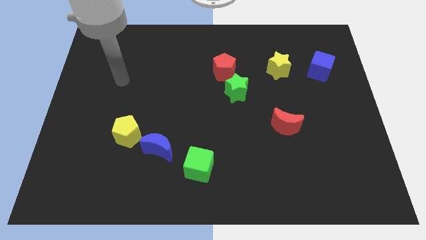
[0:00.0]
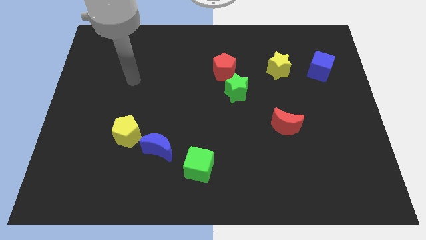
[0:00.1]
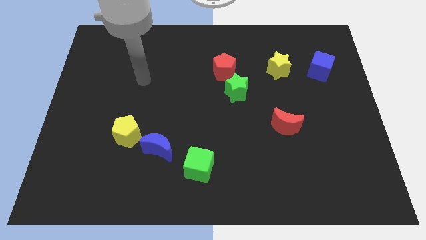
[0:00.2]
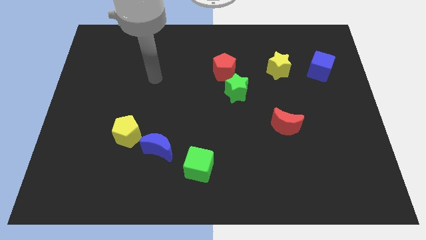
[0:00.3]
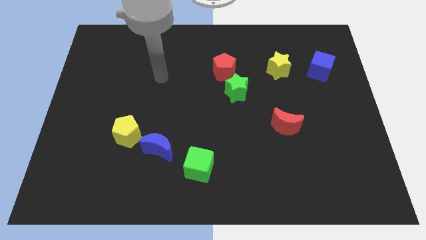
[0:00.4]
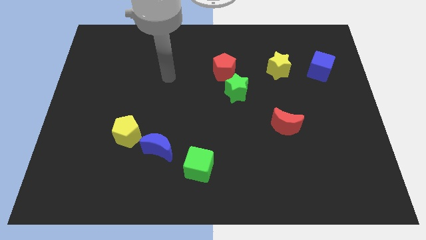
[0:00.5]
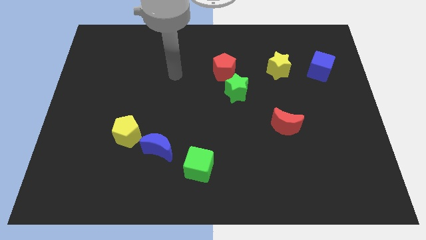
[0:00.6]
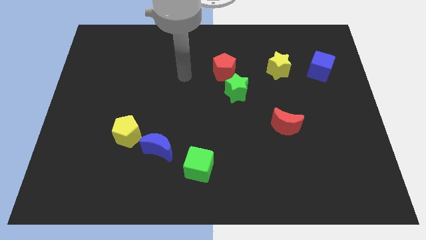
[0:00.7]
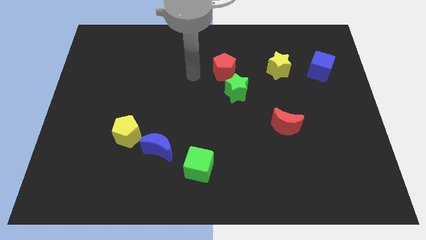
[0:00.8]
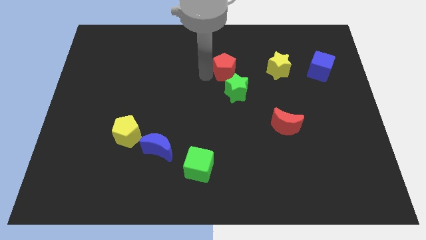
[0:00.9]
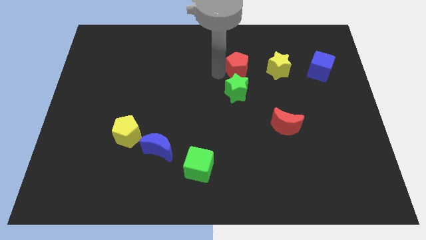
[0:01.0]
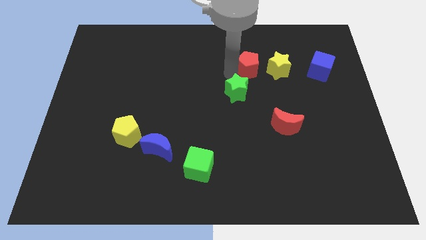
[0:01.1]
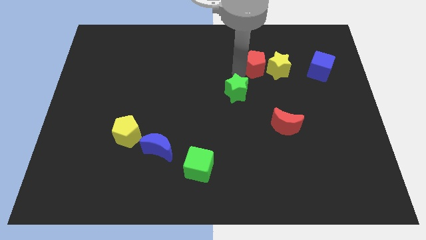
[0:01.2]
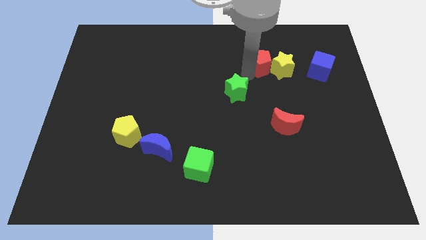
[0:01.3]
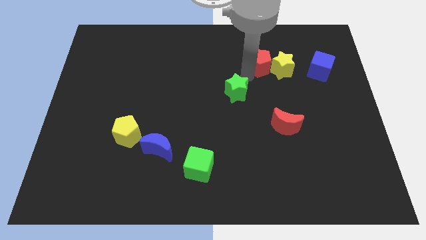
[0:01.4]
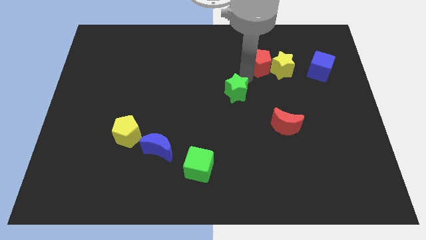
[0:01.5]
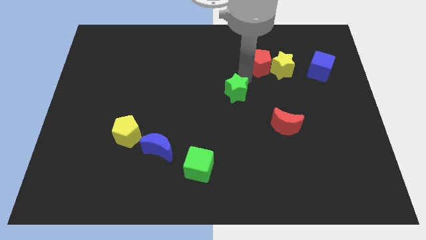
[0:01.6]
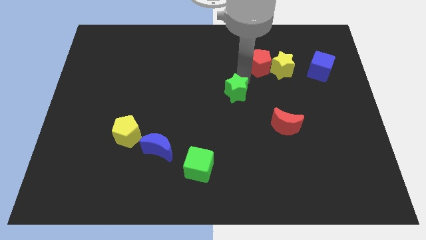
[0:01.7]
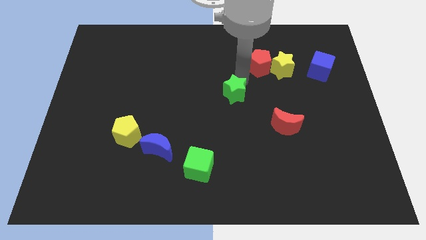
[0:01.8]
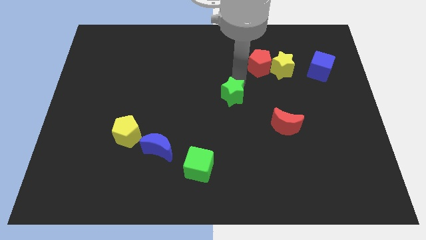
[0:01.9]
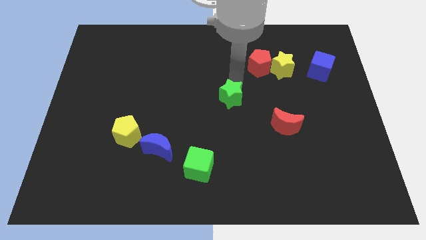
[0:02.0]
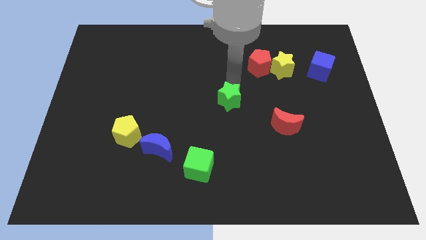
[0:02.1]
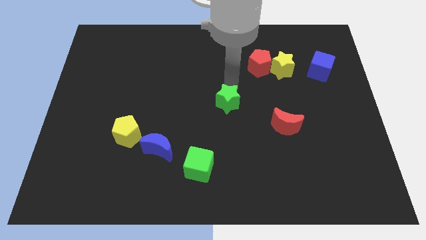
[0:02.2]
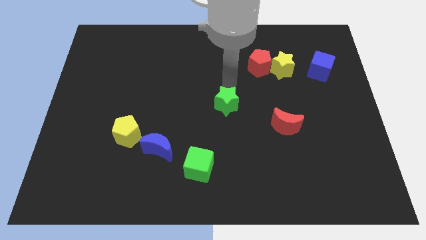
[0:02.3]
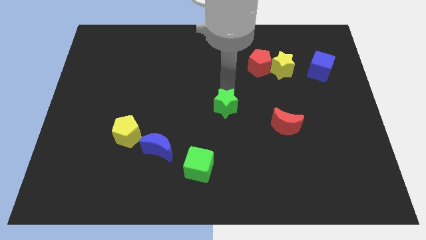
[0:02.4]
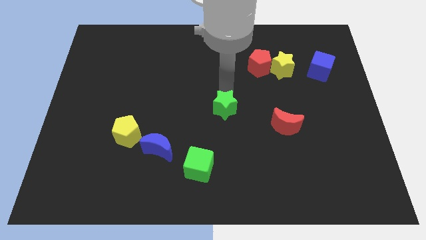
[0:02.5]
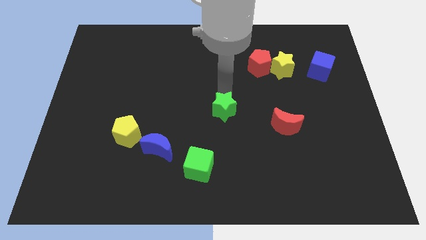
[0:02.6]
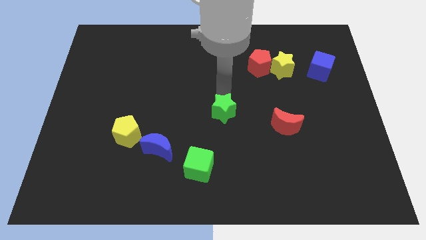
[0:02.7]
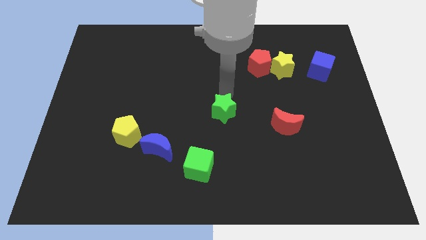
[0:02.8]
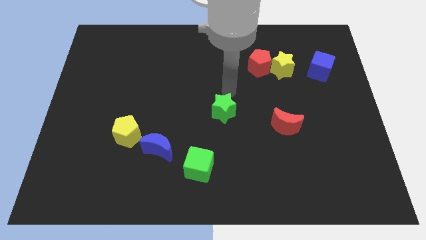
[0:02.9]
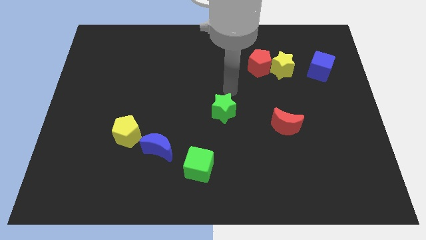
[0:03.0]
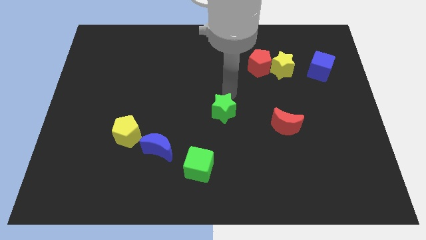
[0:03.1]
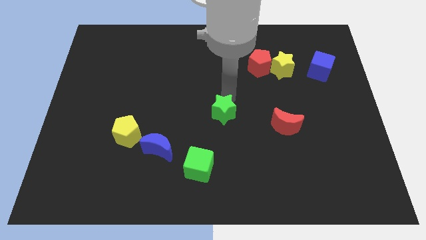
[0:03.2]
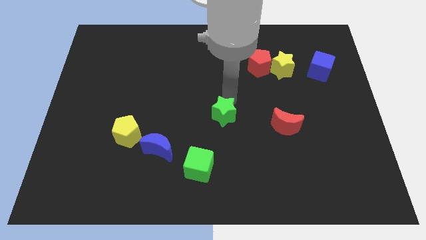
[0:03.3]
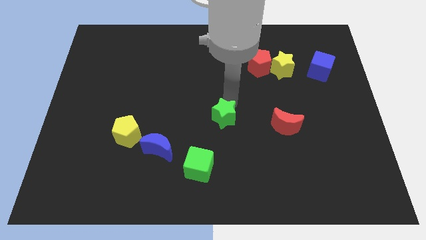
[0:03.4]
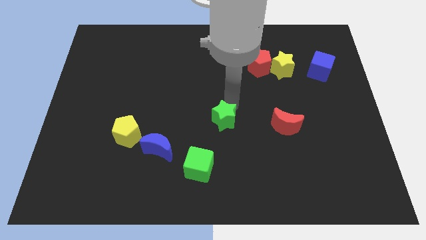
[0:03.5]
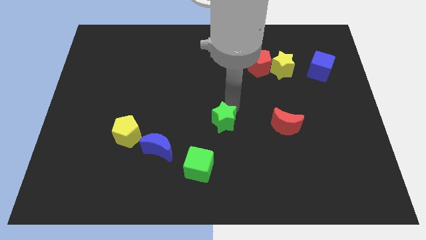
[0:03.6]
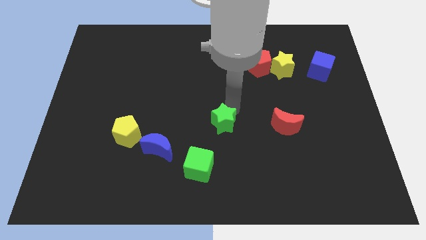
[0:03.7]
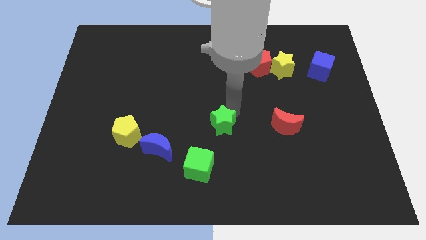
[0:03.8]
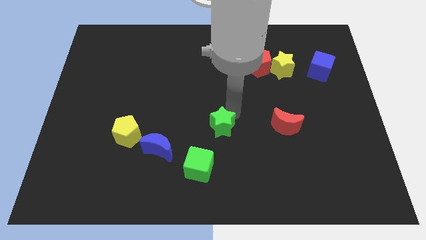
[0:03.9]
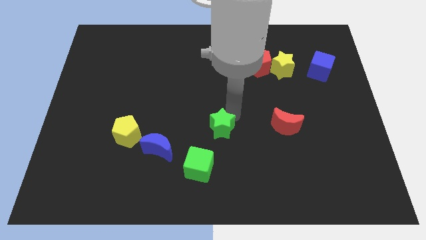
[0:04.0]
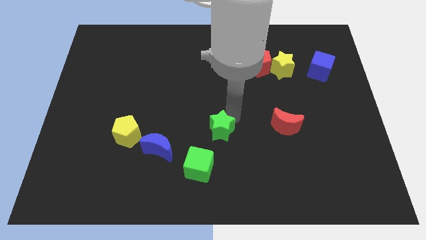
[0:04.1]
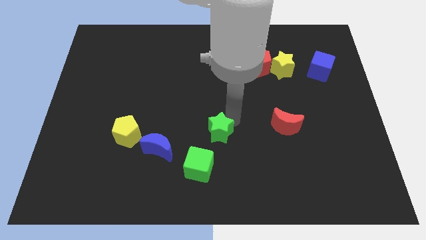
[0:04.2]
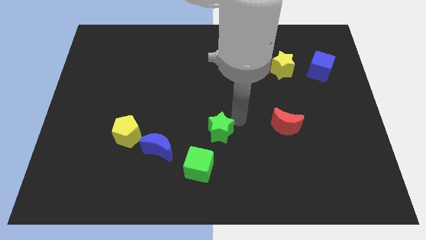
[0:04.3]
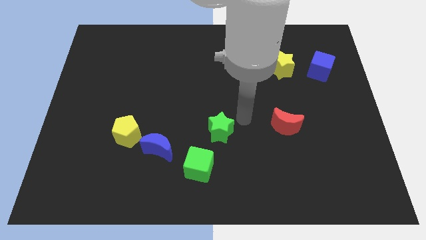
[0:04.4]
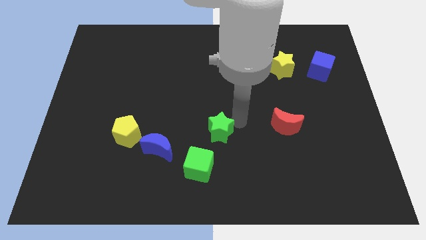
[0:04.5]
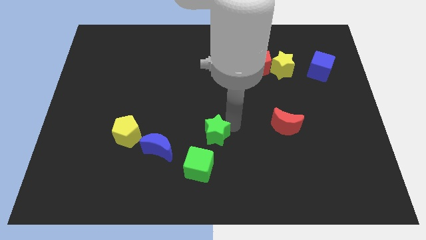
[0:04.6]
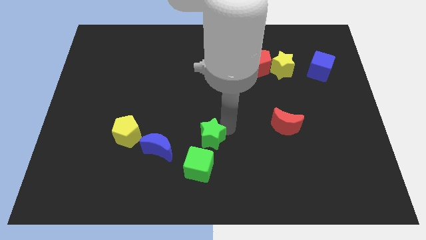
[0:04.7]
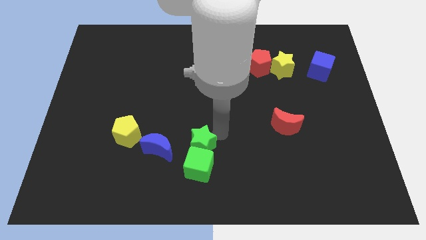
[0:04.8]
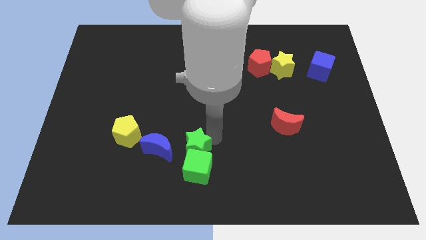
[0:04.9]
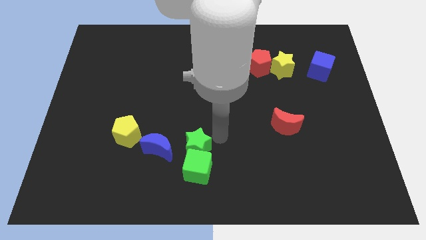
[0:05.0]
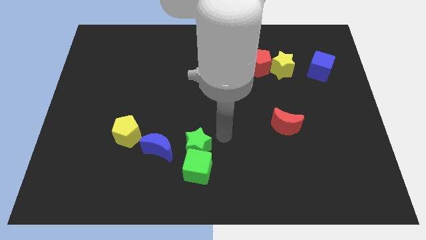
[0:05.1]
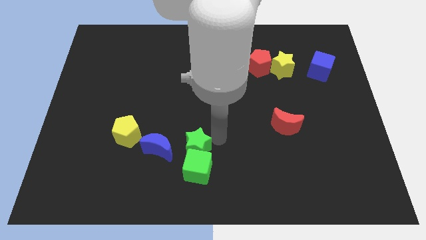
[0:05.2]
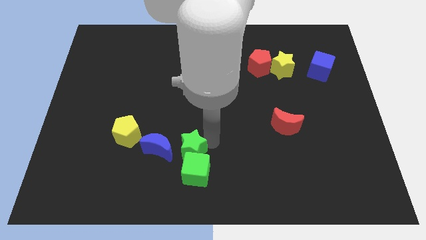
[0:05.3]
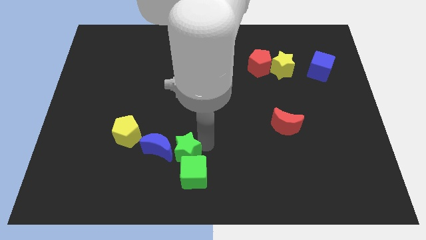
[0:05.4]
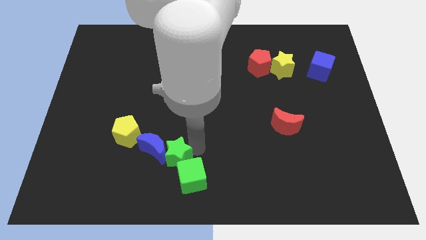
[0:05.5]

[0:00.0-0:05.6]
move the green star downwards and to the left

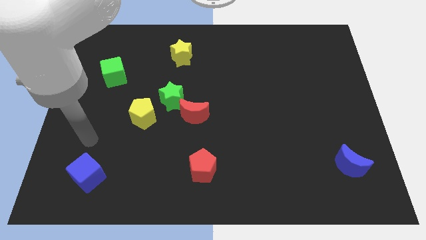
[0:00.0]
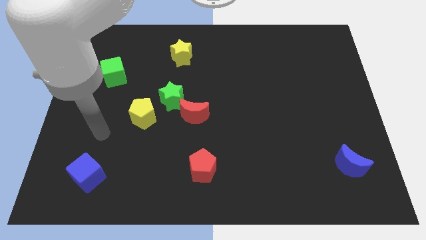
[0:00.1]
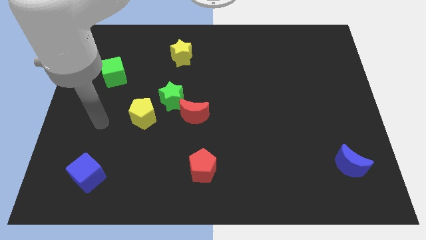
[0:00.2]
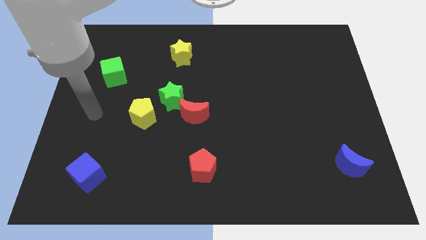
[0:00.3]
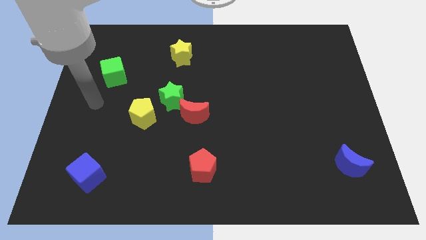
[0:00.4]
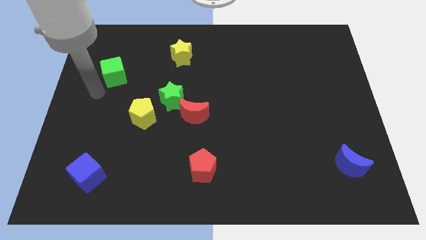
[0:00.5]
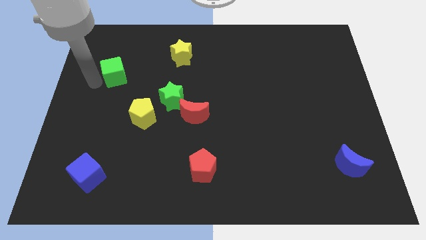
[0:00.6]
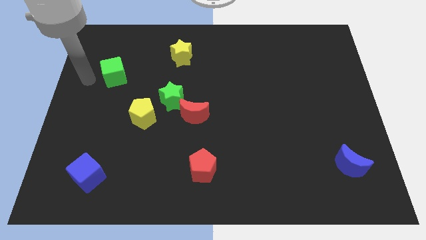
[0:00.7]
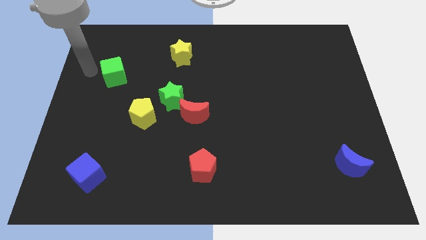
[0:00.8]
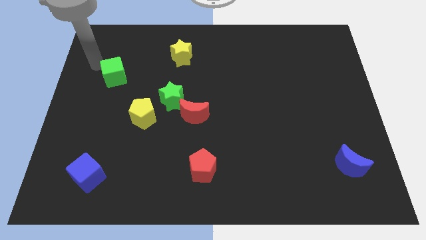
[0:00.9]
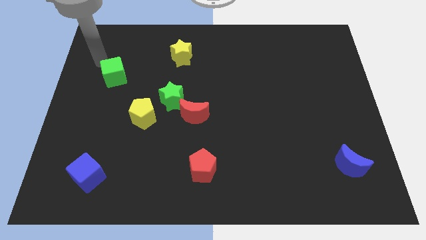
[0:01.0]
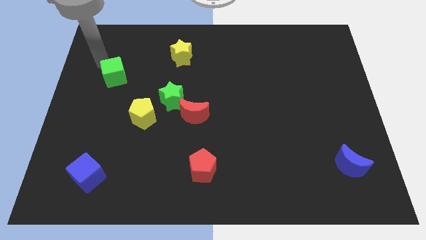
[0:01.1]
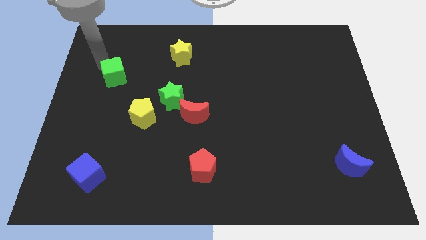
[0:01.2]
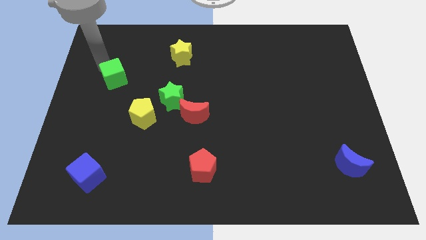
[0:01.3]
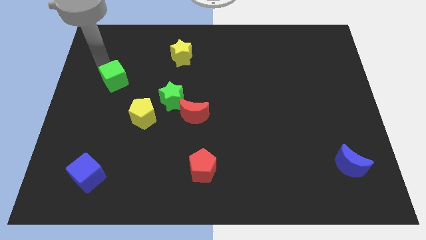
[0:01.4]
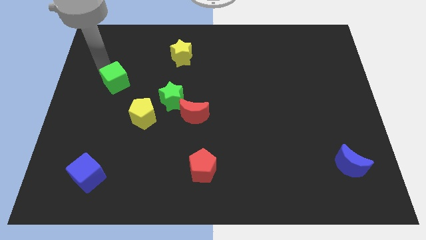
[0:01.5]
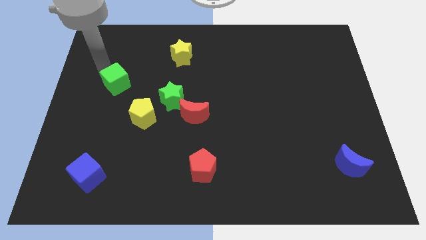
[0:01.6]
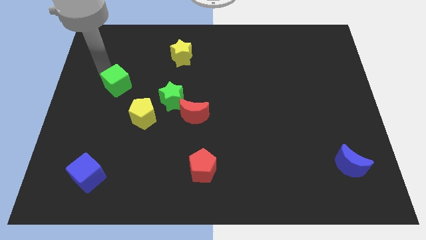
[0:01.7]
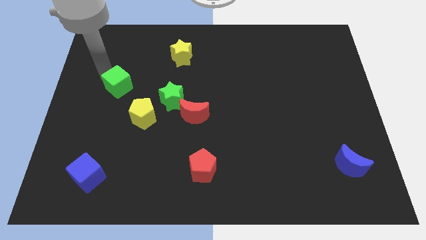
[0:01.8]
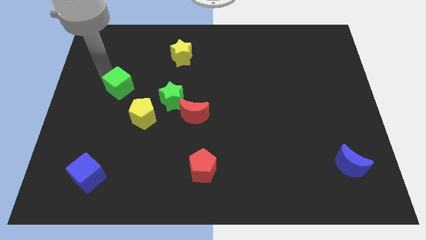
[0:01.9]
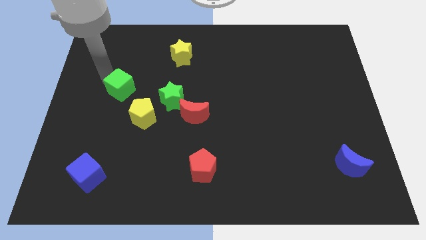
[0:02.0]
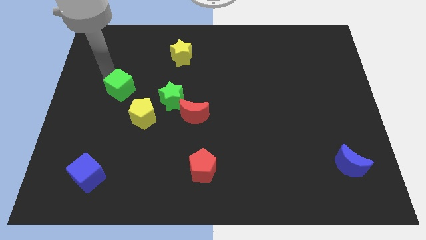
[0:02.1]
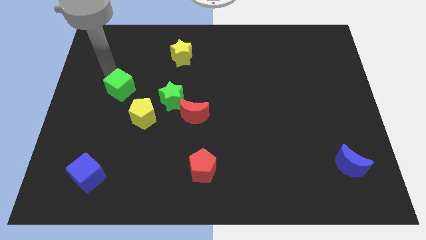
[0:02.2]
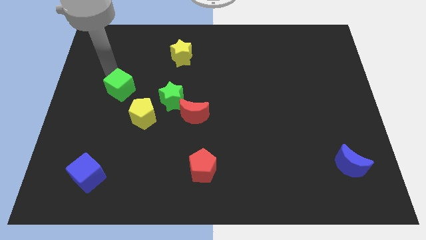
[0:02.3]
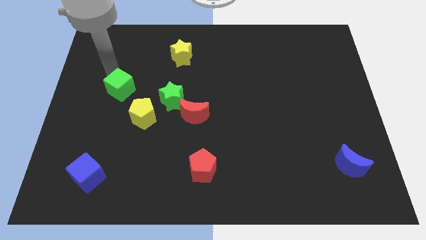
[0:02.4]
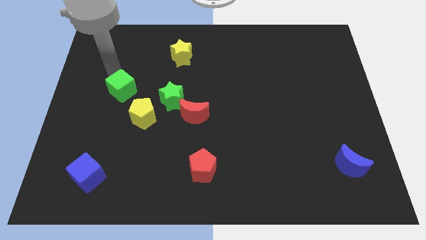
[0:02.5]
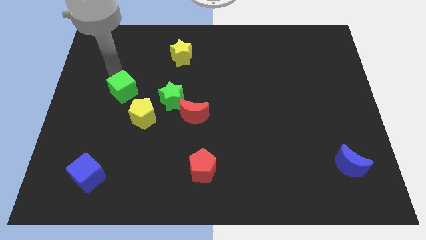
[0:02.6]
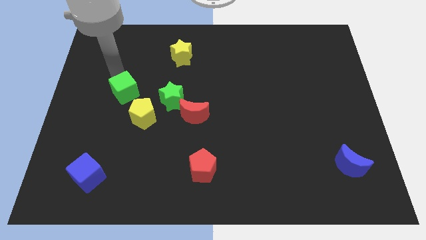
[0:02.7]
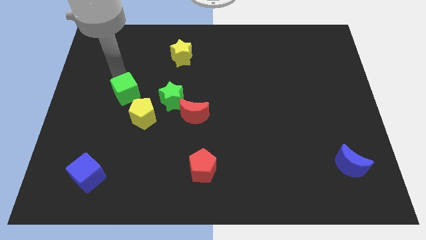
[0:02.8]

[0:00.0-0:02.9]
slightly push the green cube down and then right
